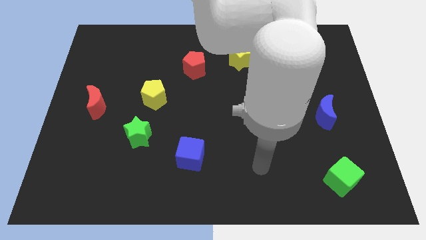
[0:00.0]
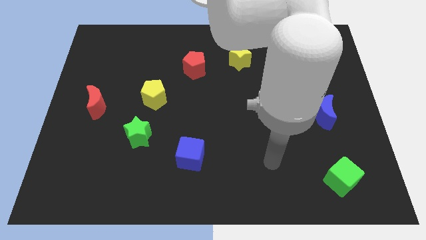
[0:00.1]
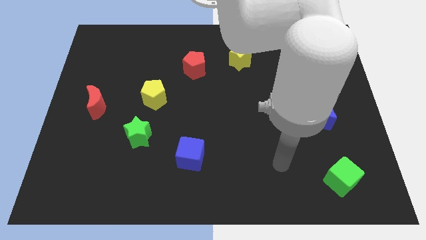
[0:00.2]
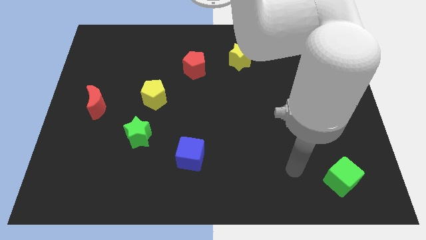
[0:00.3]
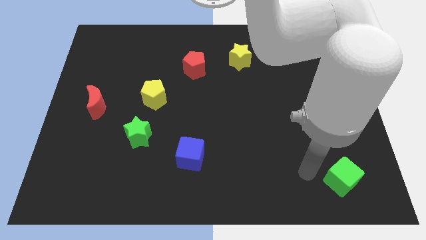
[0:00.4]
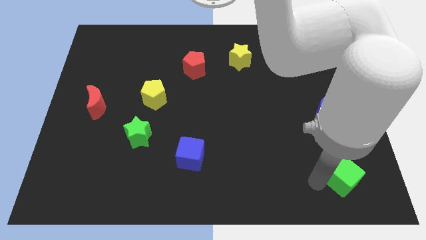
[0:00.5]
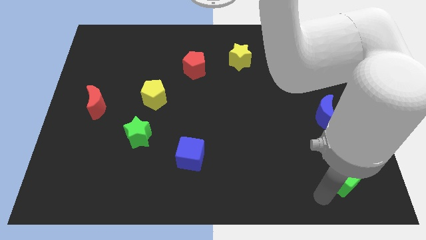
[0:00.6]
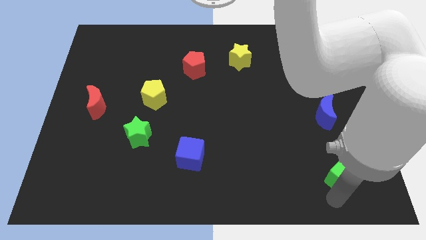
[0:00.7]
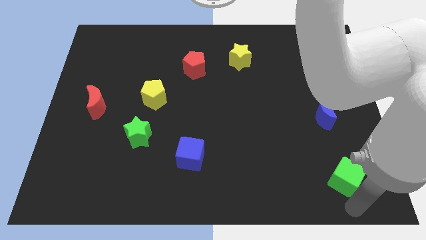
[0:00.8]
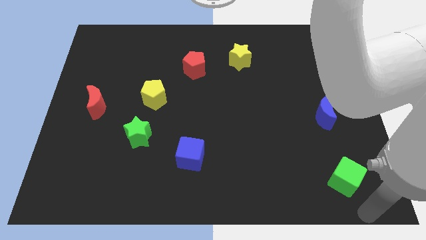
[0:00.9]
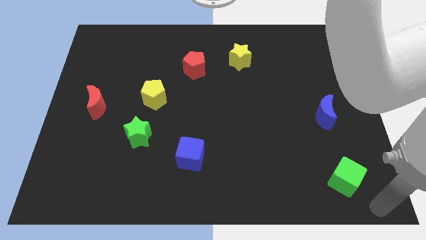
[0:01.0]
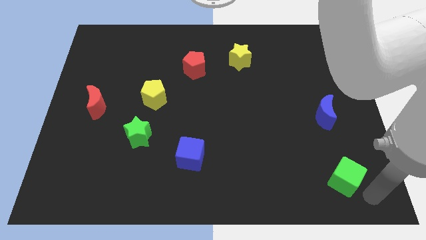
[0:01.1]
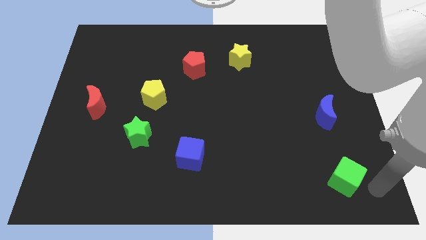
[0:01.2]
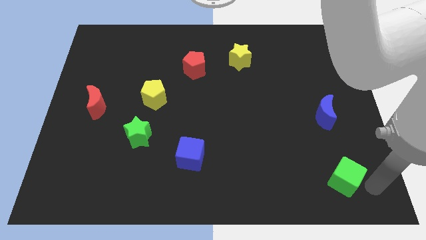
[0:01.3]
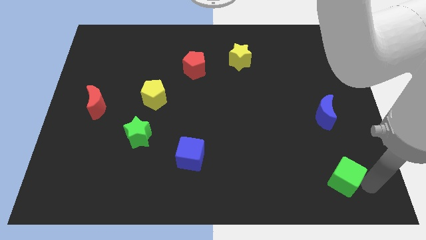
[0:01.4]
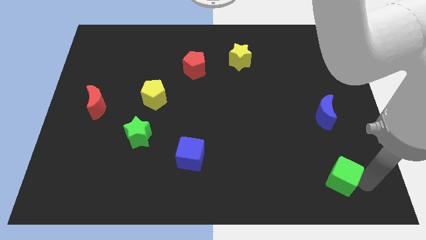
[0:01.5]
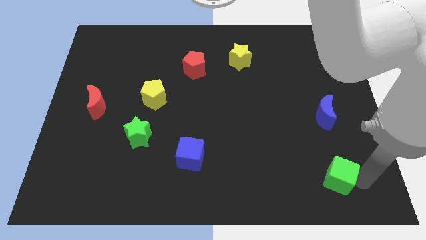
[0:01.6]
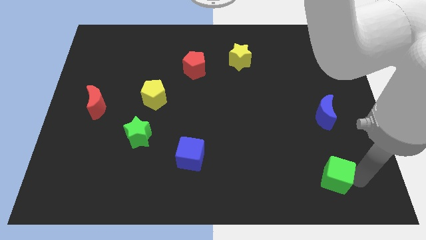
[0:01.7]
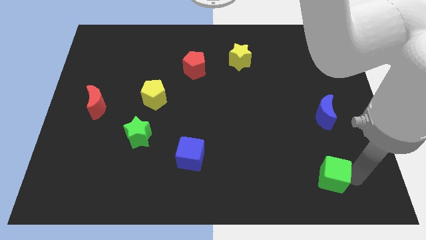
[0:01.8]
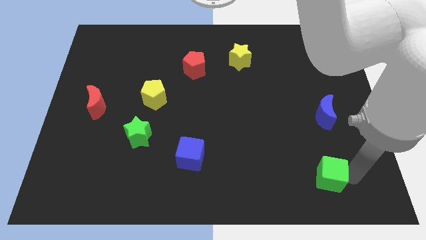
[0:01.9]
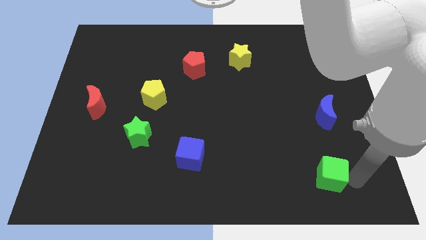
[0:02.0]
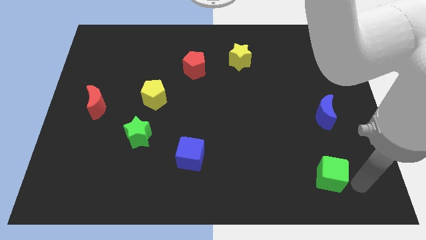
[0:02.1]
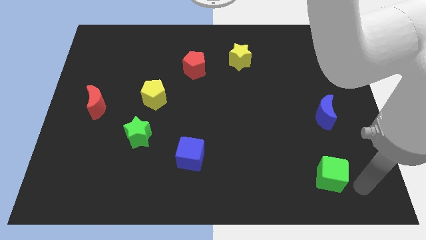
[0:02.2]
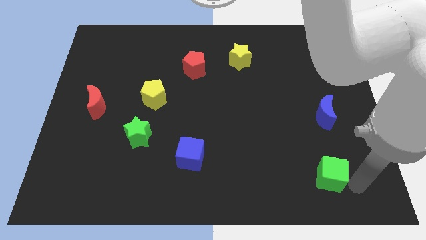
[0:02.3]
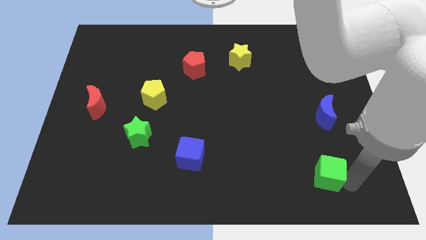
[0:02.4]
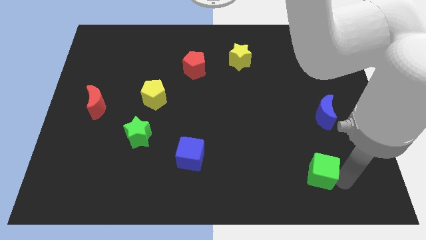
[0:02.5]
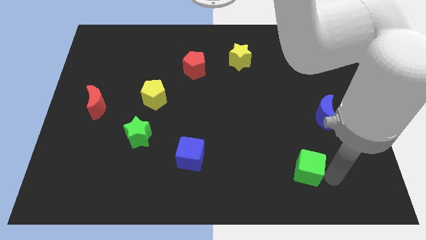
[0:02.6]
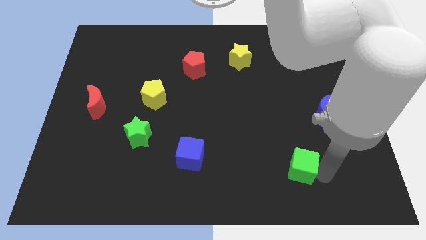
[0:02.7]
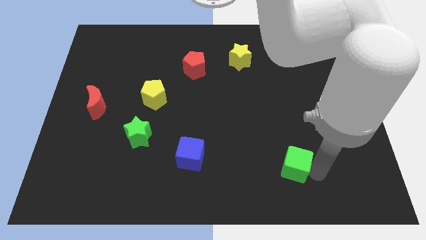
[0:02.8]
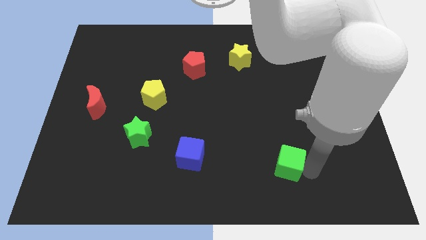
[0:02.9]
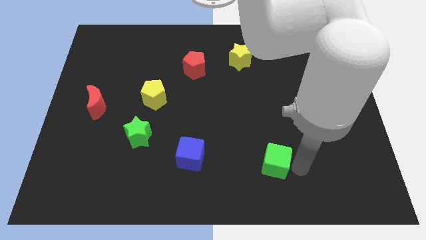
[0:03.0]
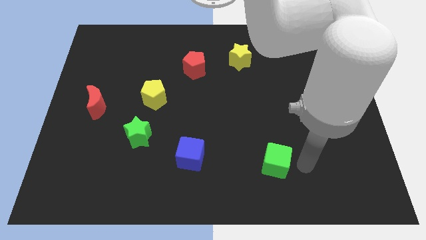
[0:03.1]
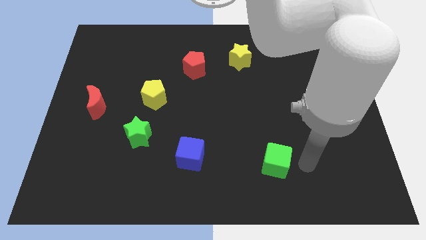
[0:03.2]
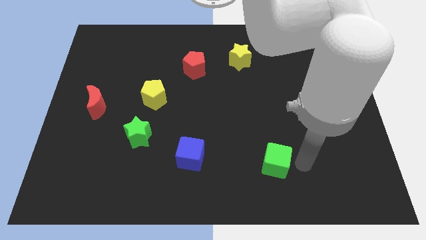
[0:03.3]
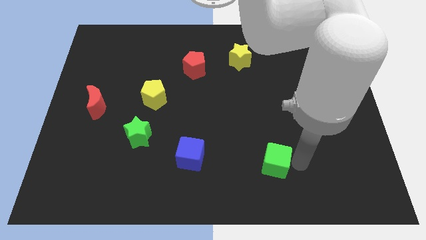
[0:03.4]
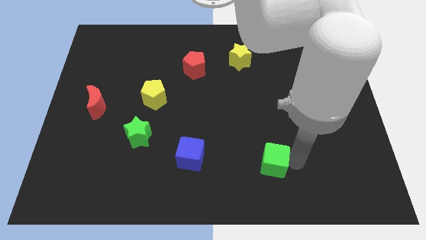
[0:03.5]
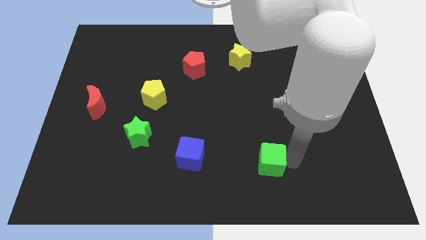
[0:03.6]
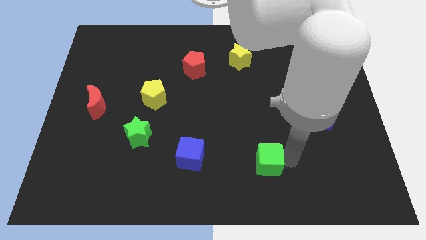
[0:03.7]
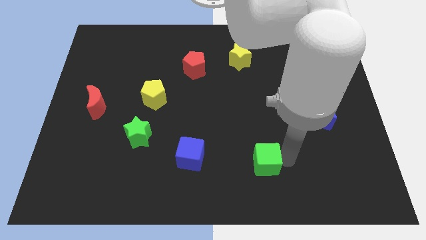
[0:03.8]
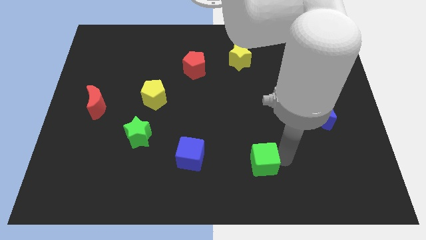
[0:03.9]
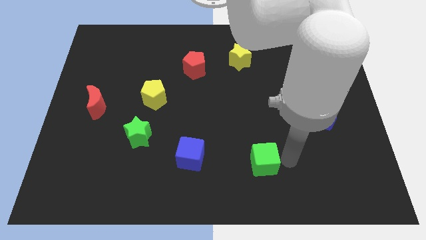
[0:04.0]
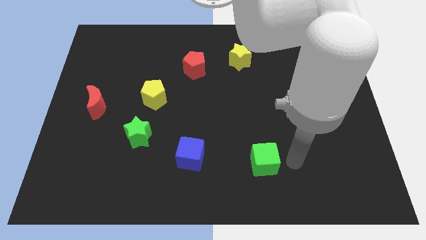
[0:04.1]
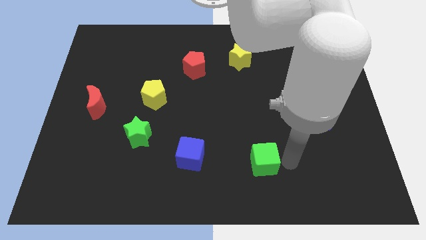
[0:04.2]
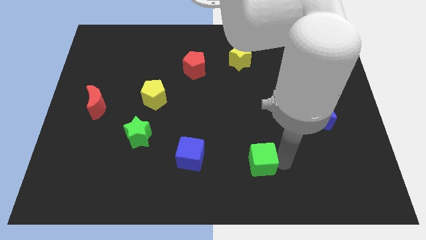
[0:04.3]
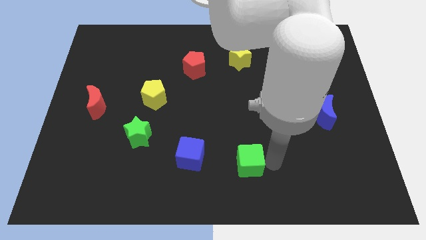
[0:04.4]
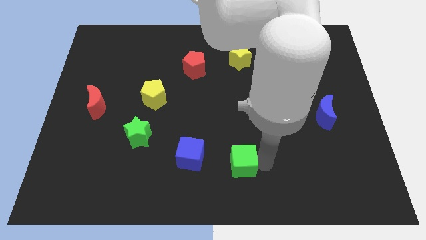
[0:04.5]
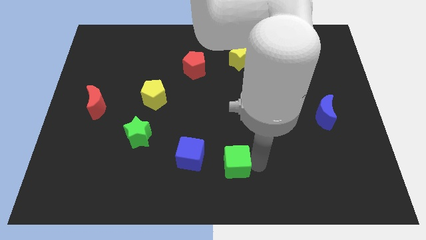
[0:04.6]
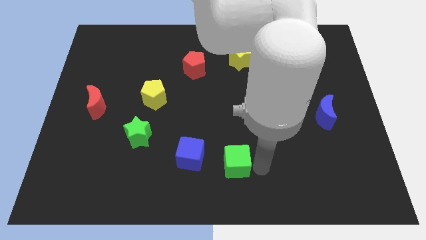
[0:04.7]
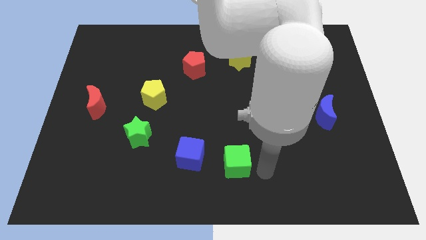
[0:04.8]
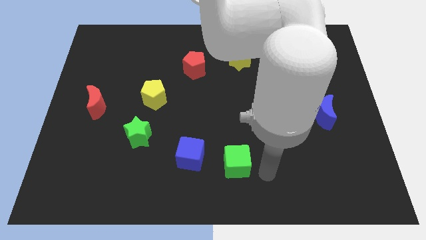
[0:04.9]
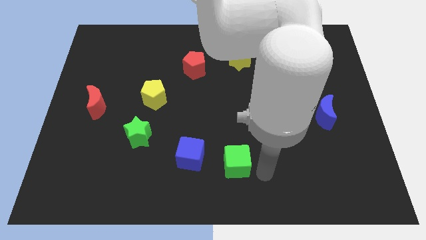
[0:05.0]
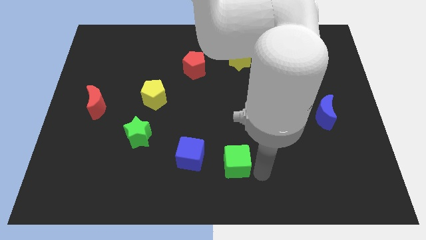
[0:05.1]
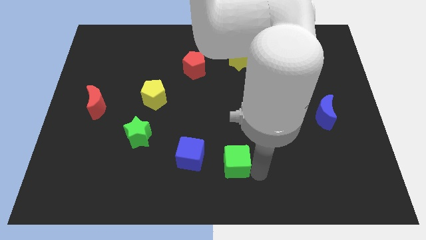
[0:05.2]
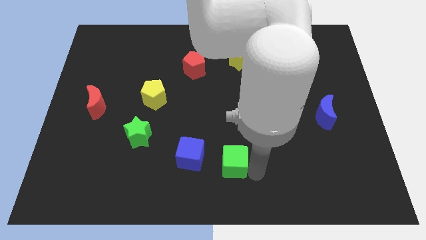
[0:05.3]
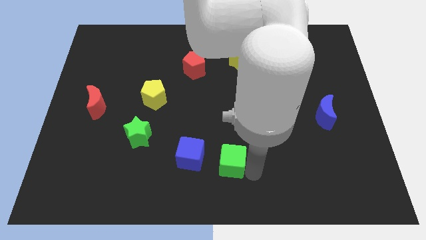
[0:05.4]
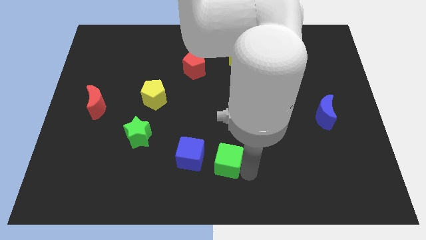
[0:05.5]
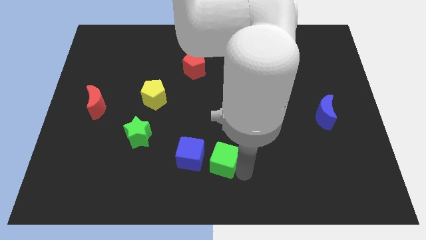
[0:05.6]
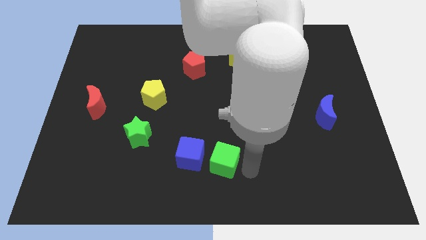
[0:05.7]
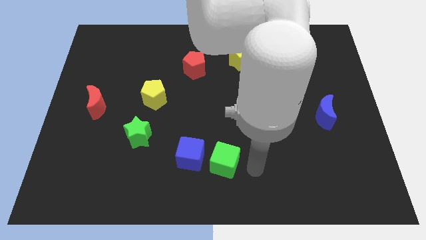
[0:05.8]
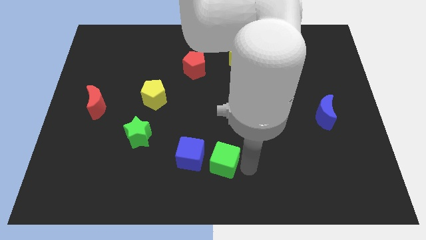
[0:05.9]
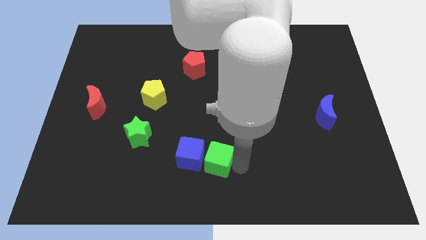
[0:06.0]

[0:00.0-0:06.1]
put the green cube towards the blue cube

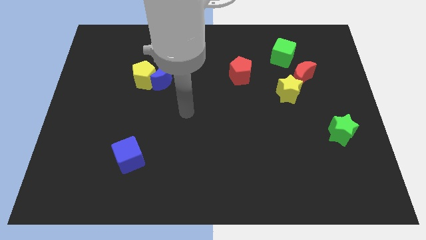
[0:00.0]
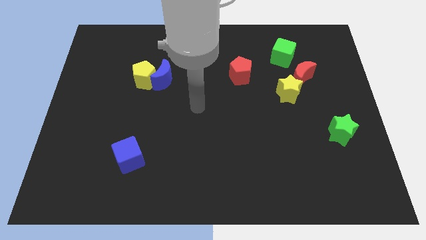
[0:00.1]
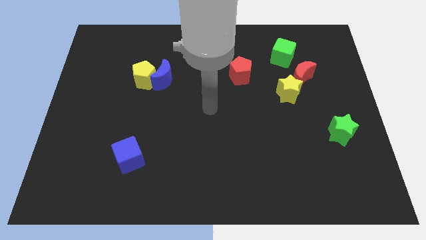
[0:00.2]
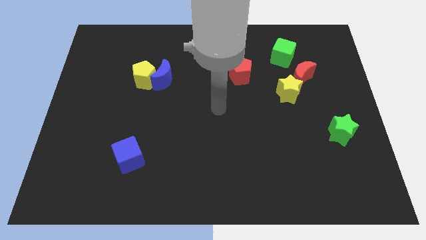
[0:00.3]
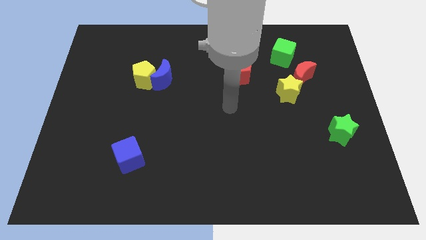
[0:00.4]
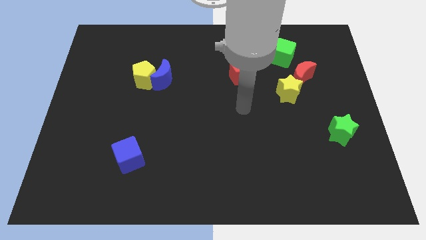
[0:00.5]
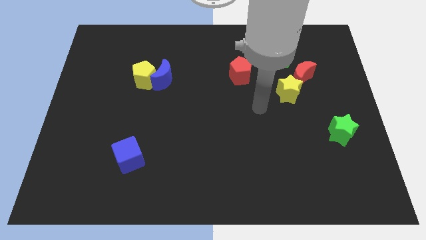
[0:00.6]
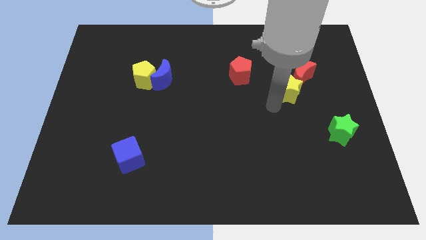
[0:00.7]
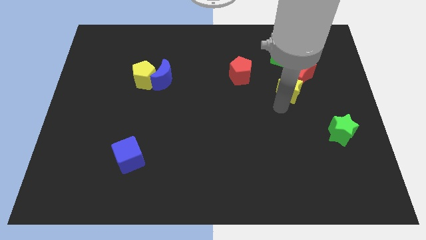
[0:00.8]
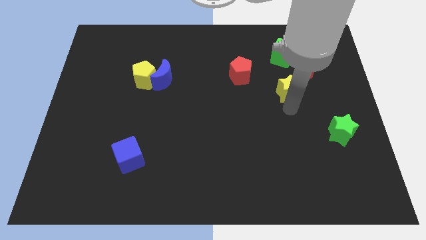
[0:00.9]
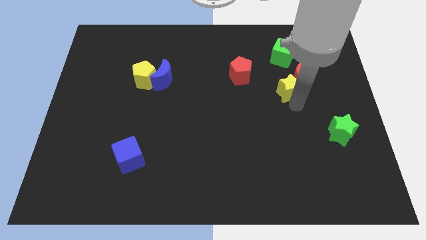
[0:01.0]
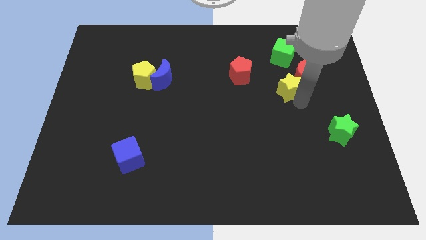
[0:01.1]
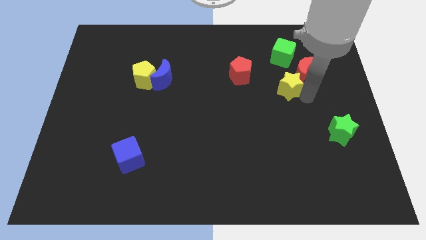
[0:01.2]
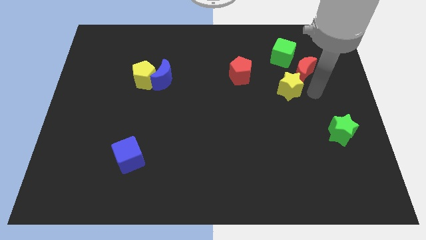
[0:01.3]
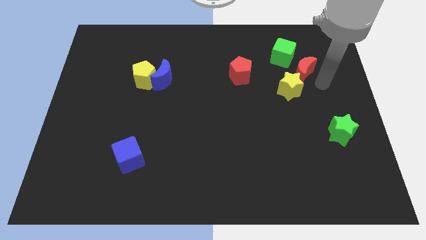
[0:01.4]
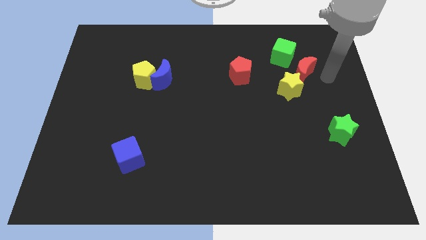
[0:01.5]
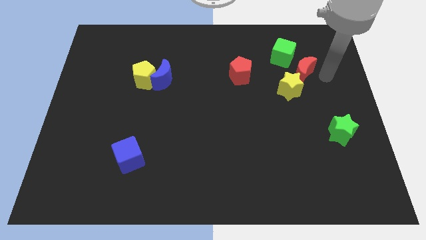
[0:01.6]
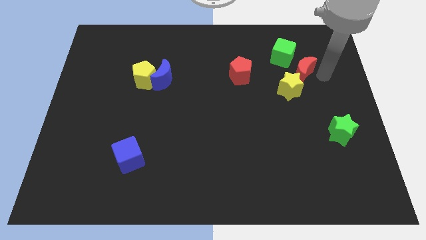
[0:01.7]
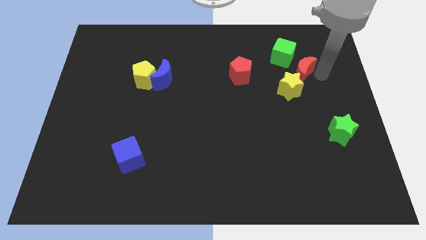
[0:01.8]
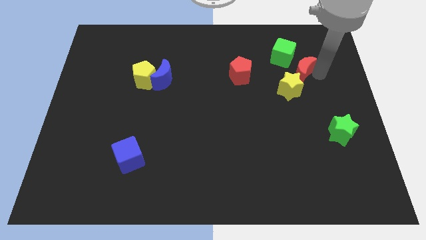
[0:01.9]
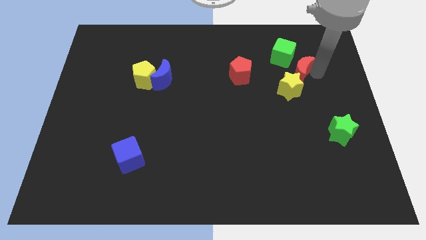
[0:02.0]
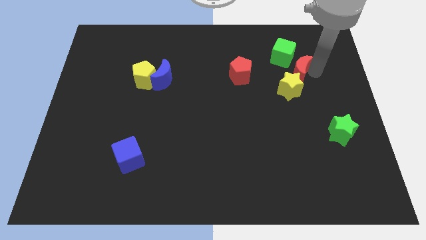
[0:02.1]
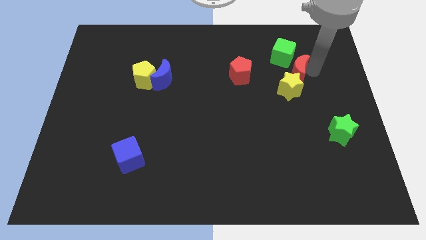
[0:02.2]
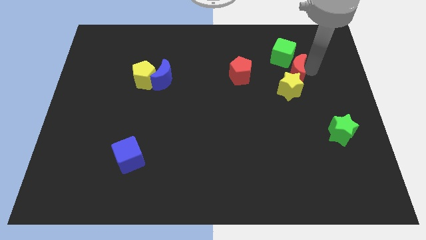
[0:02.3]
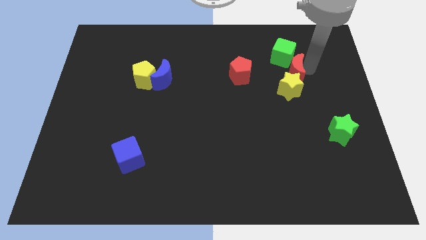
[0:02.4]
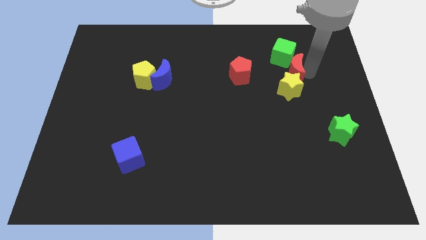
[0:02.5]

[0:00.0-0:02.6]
put the red moon towards the green cube
